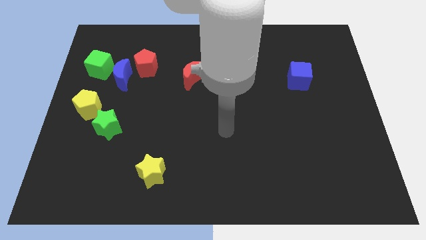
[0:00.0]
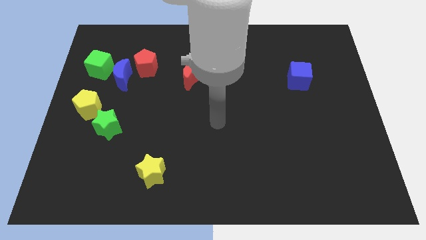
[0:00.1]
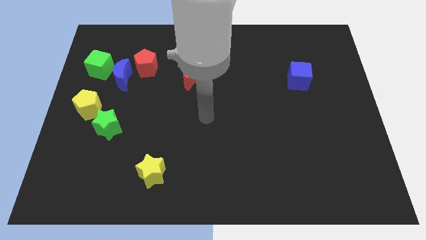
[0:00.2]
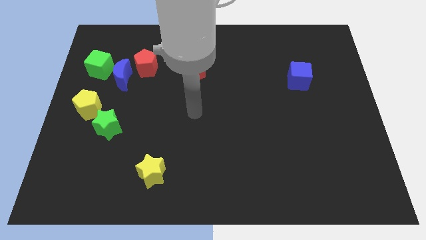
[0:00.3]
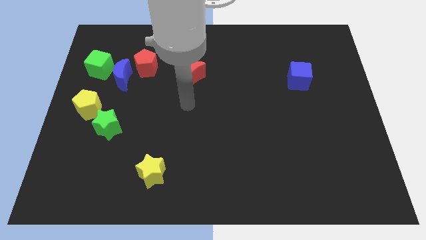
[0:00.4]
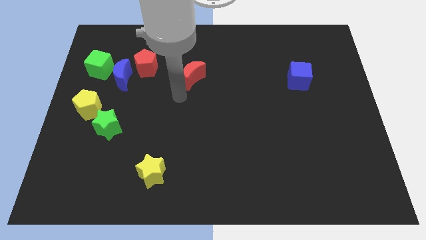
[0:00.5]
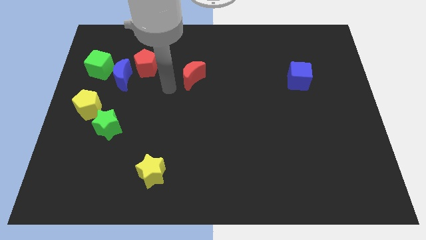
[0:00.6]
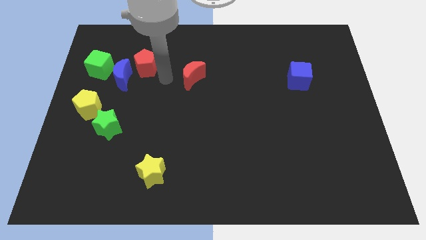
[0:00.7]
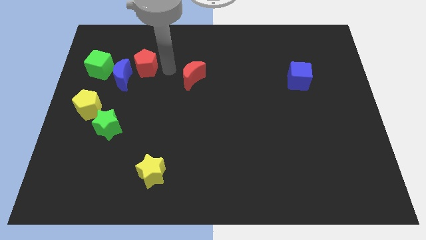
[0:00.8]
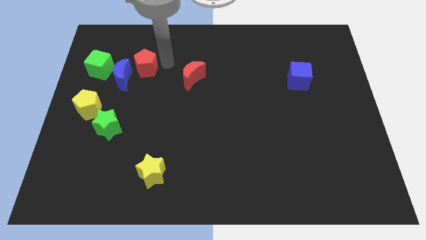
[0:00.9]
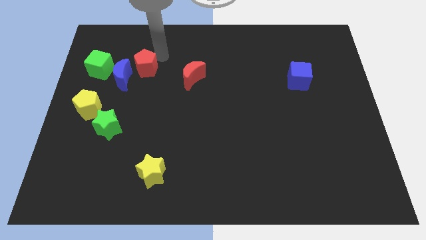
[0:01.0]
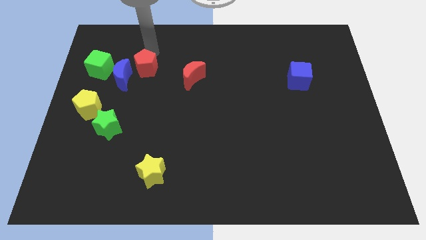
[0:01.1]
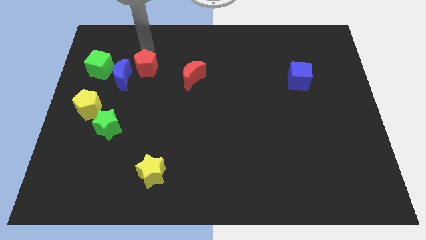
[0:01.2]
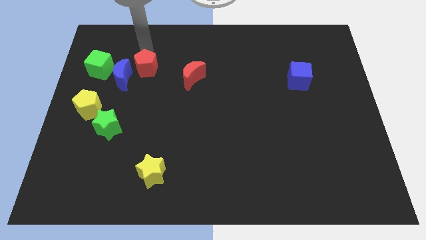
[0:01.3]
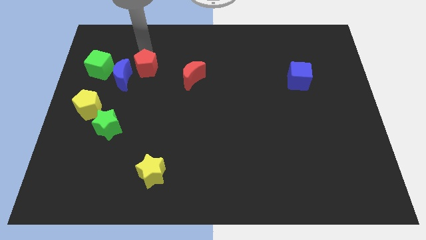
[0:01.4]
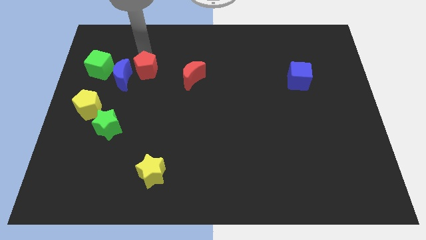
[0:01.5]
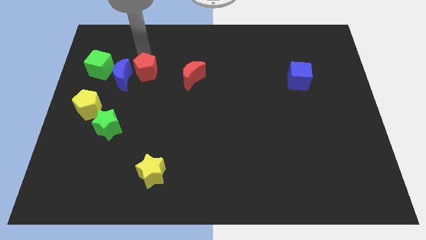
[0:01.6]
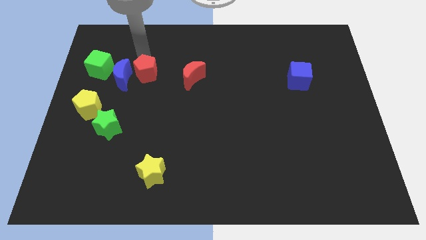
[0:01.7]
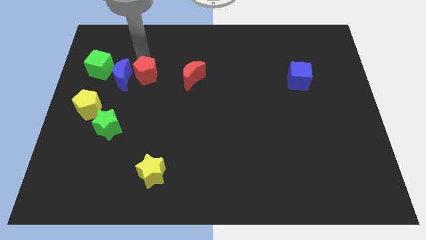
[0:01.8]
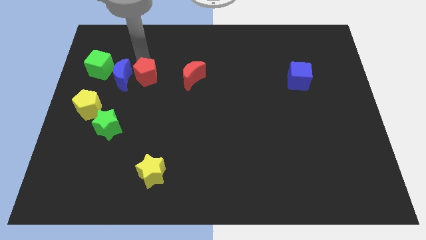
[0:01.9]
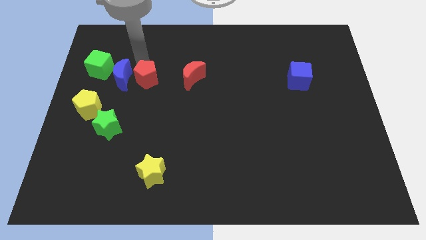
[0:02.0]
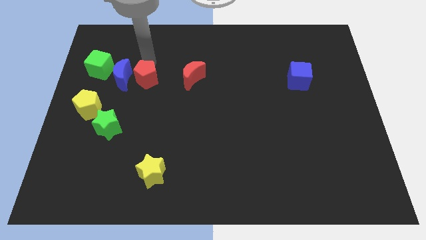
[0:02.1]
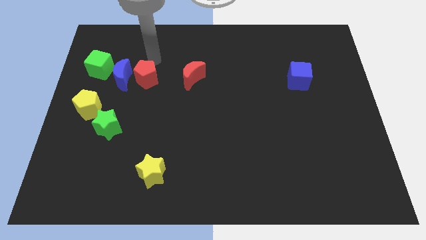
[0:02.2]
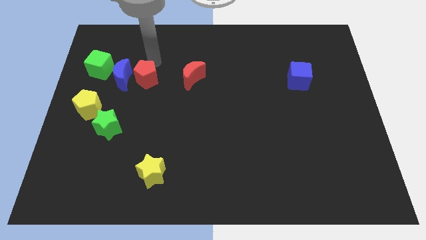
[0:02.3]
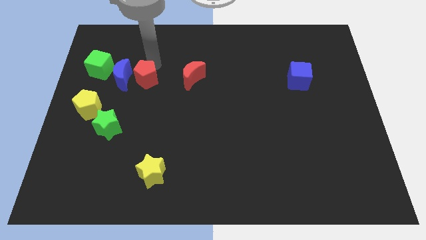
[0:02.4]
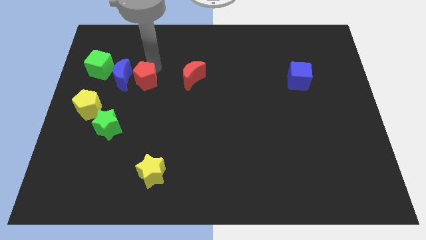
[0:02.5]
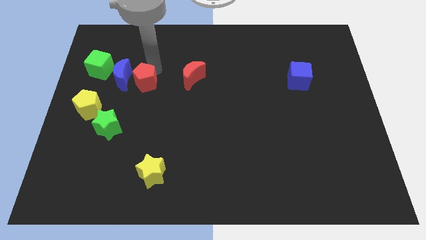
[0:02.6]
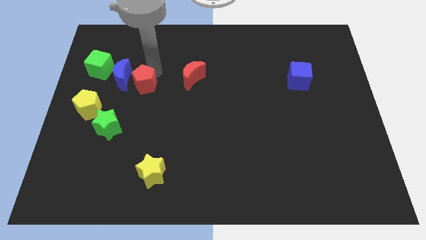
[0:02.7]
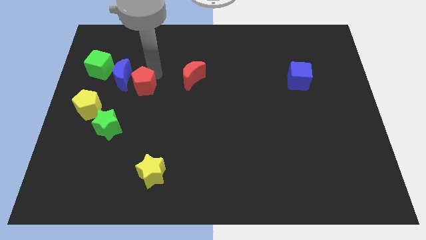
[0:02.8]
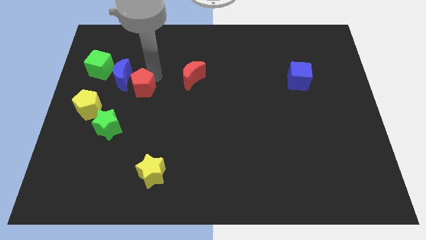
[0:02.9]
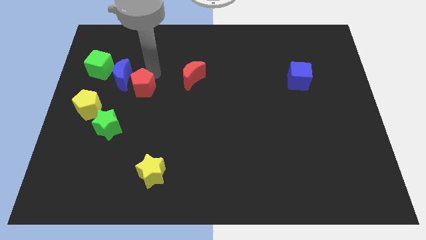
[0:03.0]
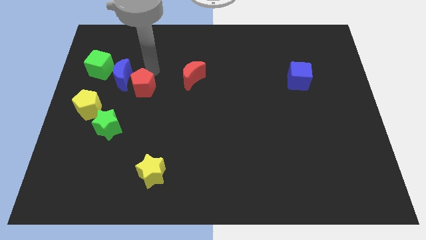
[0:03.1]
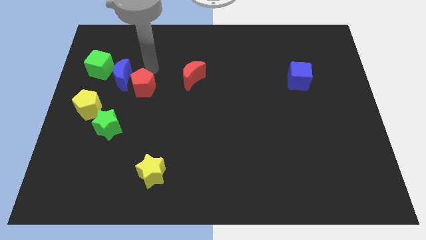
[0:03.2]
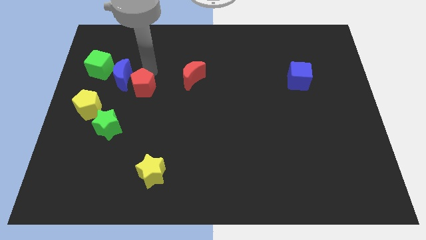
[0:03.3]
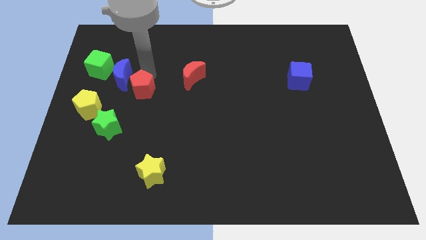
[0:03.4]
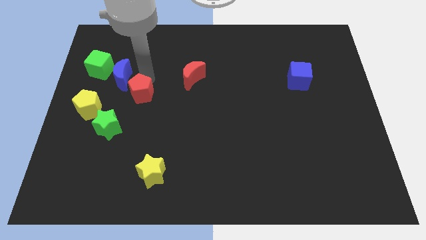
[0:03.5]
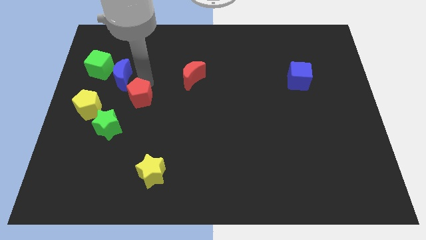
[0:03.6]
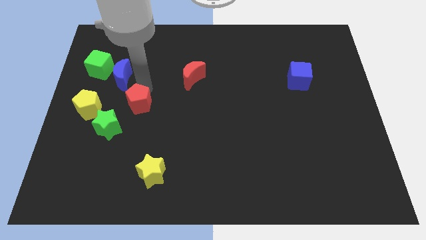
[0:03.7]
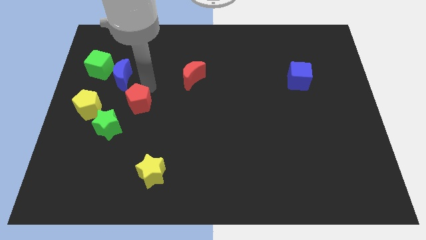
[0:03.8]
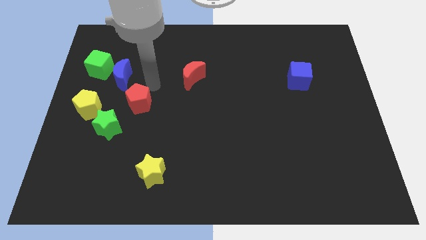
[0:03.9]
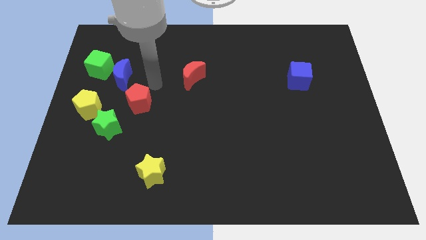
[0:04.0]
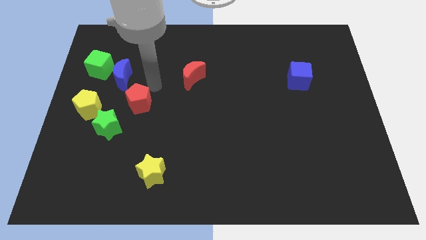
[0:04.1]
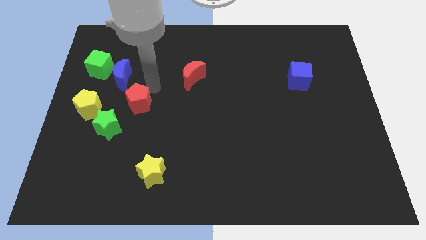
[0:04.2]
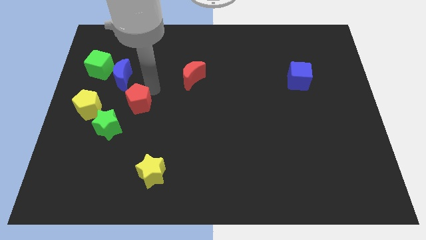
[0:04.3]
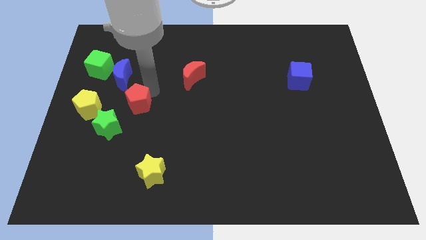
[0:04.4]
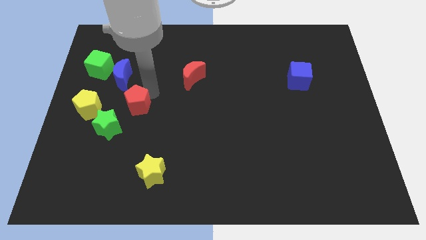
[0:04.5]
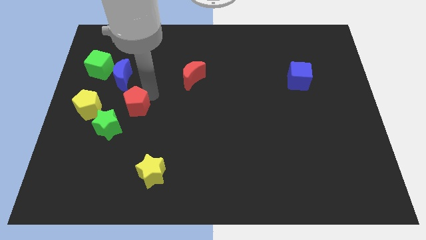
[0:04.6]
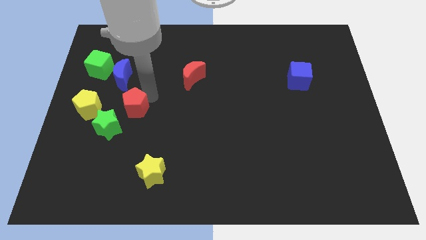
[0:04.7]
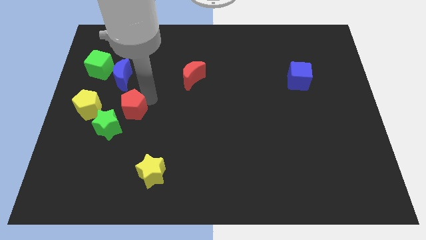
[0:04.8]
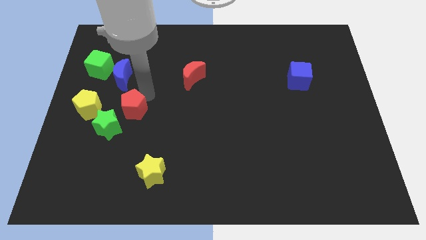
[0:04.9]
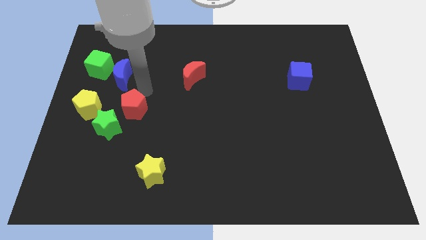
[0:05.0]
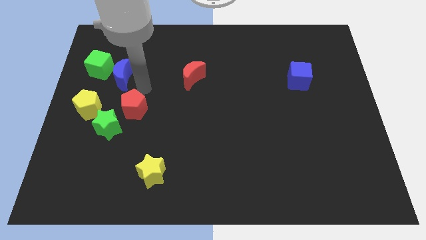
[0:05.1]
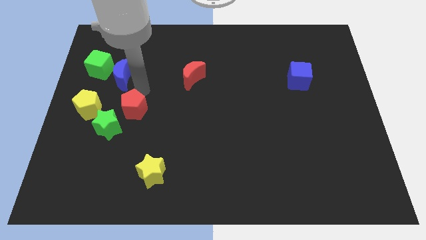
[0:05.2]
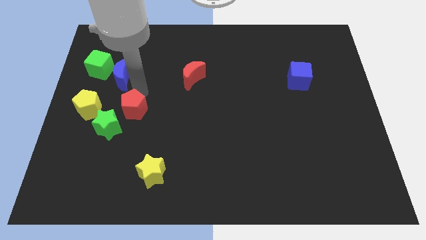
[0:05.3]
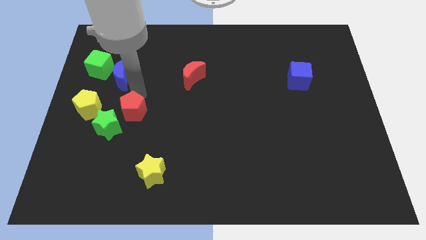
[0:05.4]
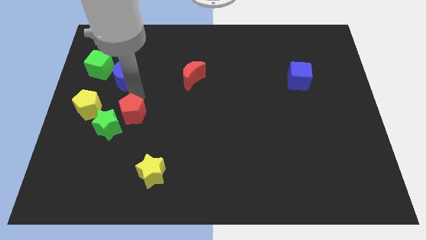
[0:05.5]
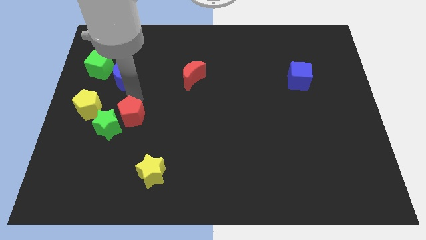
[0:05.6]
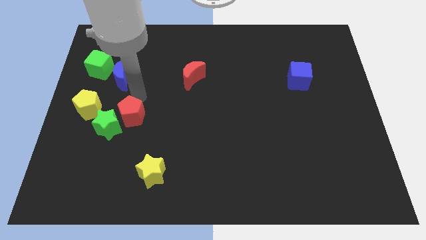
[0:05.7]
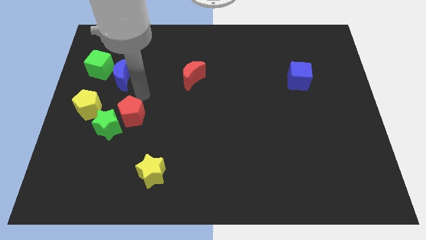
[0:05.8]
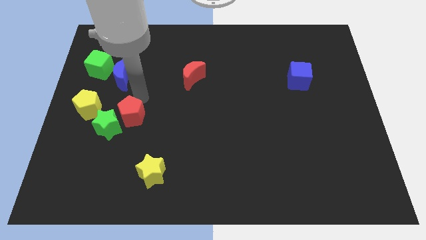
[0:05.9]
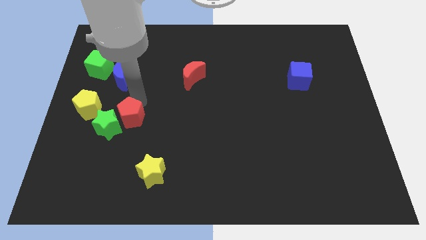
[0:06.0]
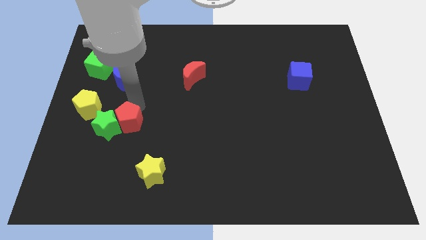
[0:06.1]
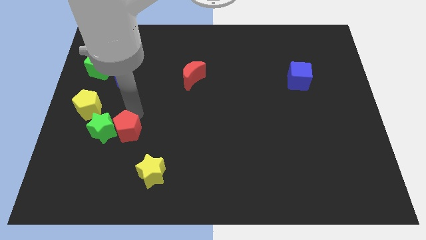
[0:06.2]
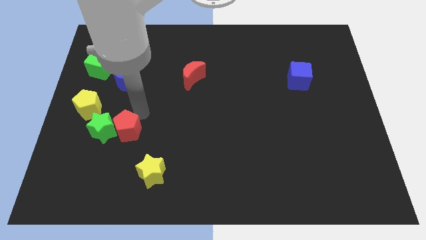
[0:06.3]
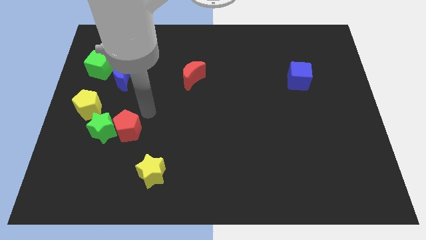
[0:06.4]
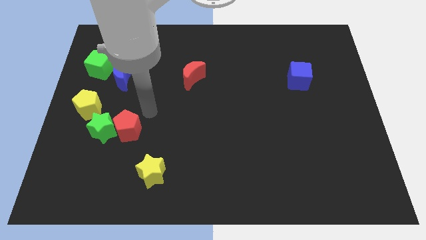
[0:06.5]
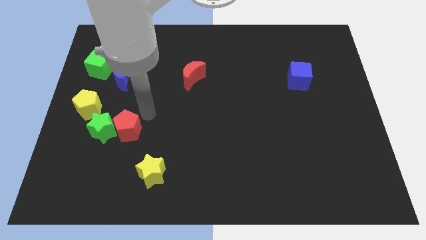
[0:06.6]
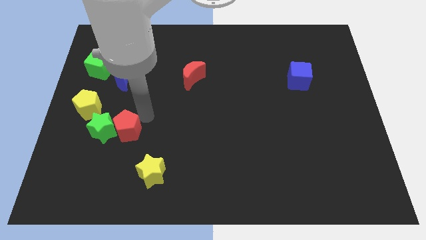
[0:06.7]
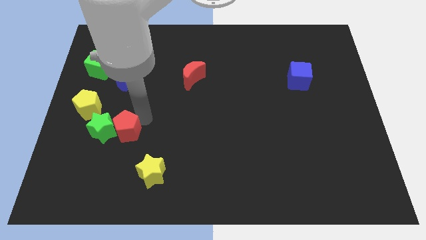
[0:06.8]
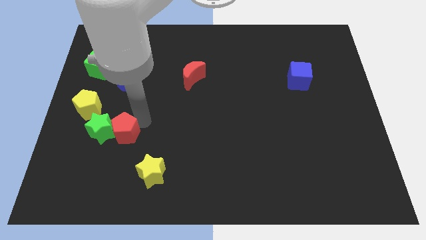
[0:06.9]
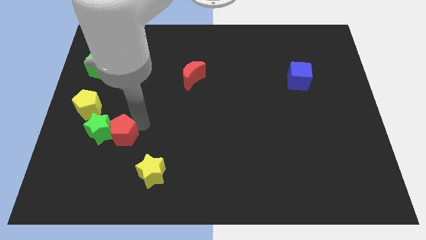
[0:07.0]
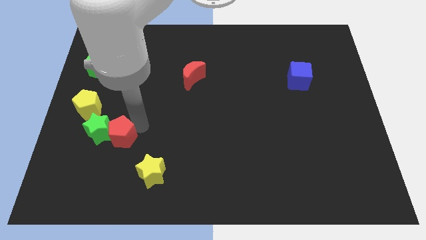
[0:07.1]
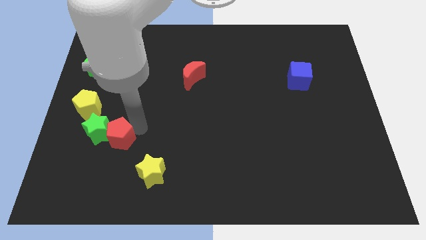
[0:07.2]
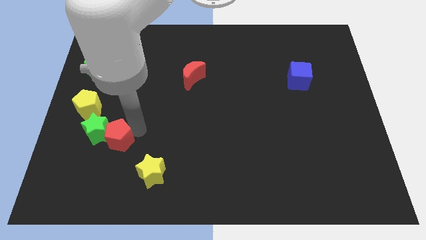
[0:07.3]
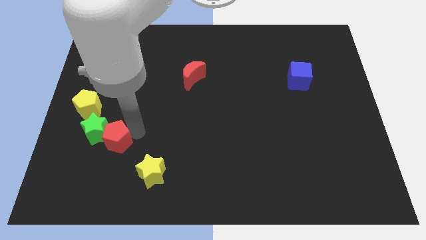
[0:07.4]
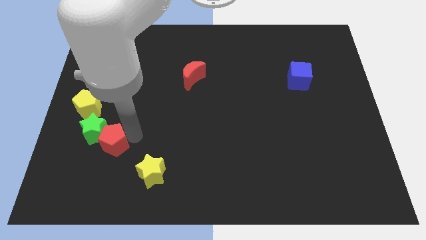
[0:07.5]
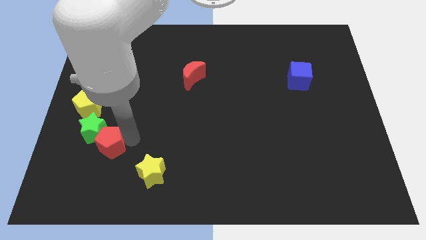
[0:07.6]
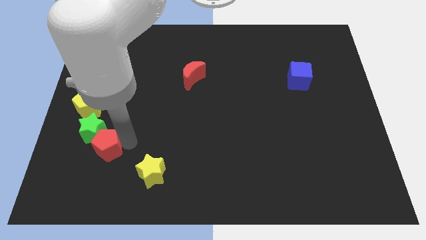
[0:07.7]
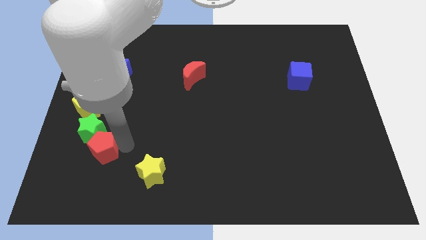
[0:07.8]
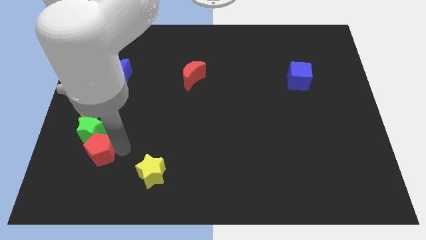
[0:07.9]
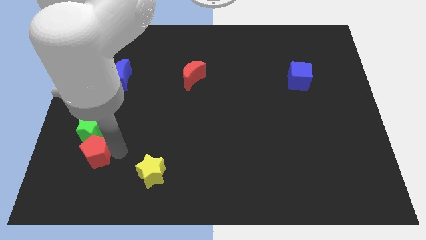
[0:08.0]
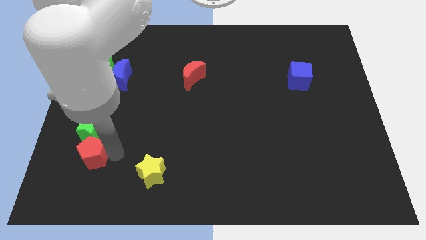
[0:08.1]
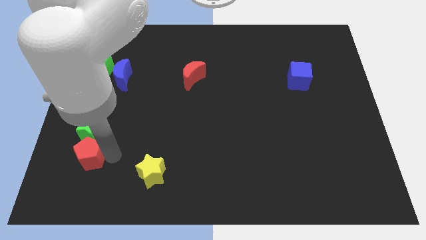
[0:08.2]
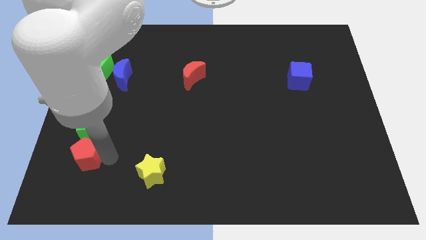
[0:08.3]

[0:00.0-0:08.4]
push the red pentagon to the bottom left side of the green star
